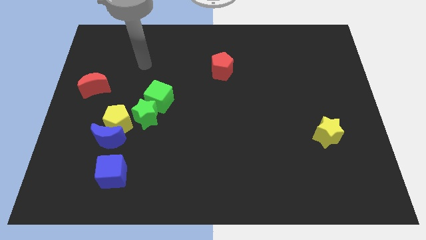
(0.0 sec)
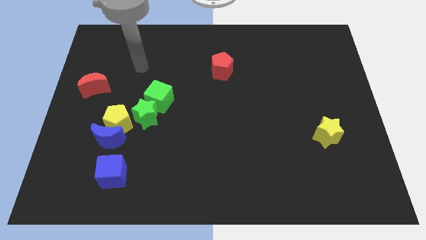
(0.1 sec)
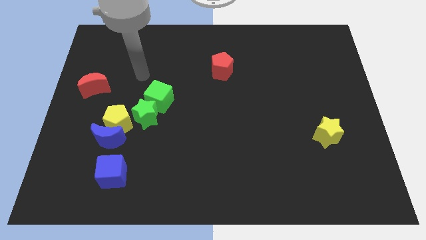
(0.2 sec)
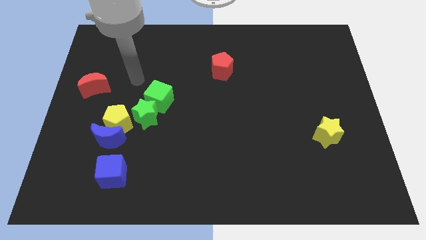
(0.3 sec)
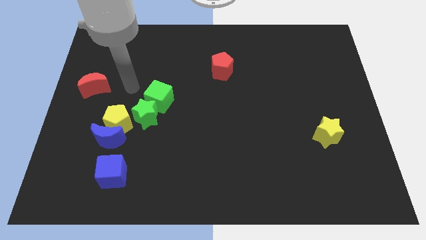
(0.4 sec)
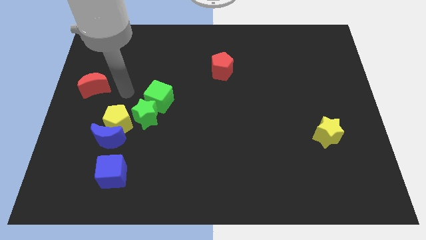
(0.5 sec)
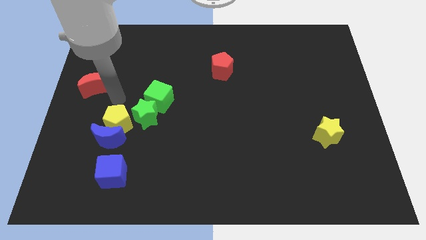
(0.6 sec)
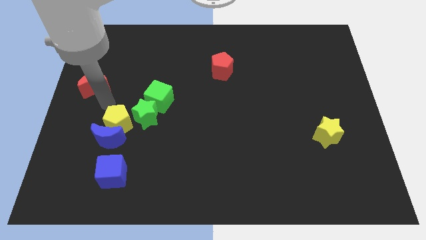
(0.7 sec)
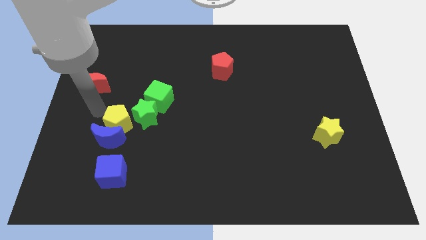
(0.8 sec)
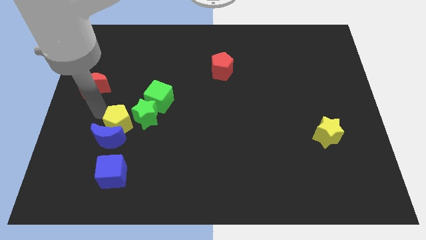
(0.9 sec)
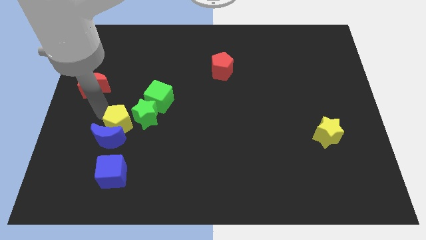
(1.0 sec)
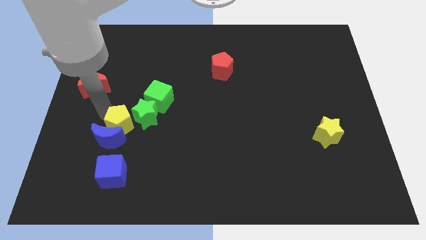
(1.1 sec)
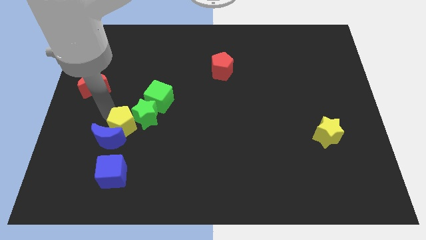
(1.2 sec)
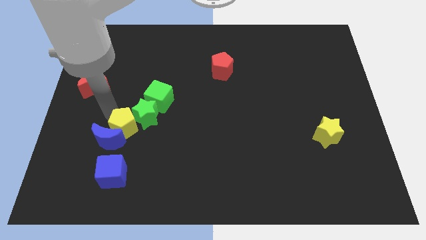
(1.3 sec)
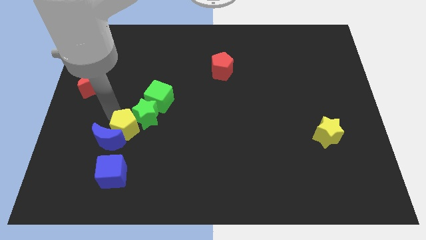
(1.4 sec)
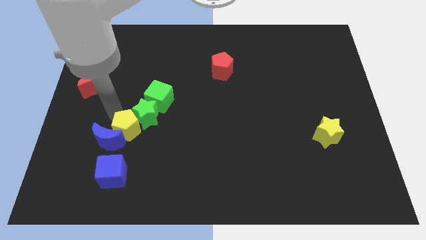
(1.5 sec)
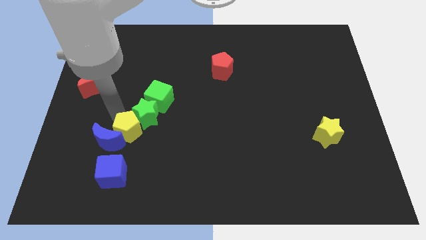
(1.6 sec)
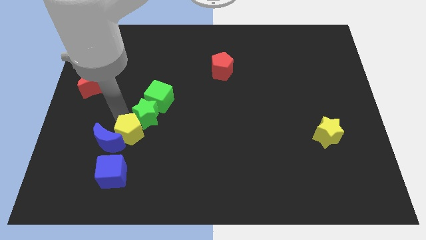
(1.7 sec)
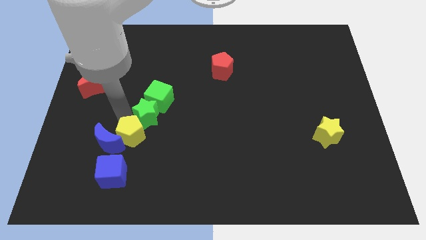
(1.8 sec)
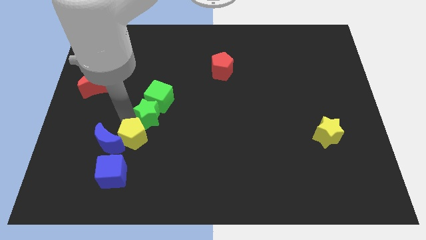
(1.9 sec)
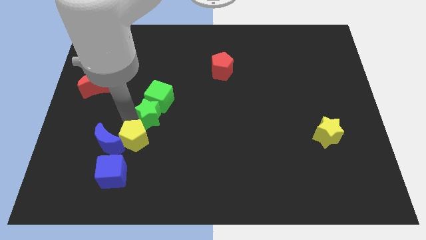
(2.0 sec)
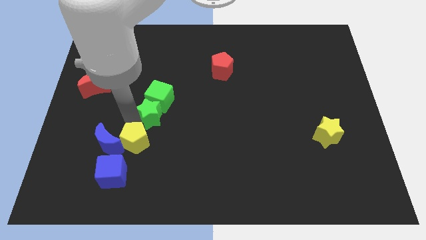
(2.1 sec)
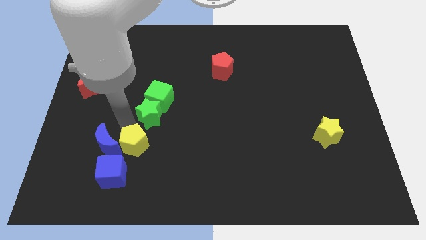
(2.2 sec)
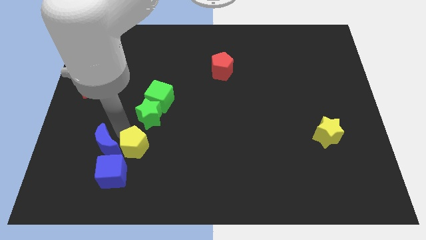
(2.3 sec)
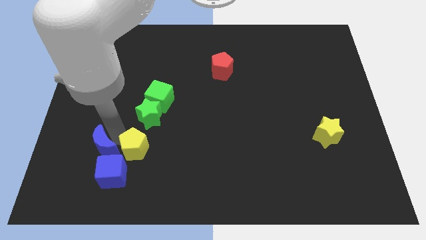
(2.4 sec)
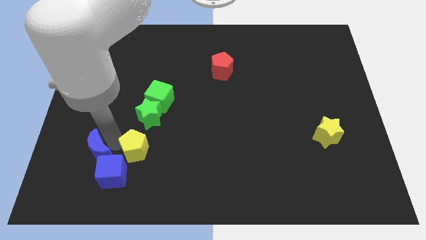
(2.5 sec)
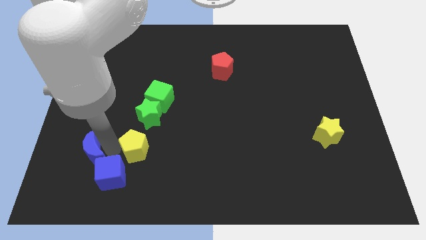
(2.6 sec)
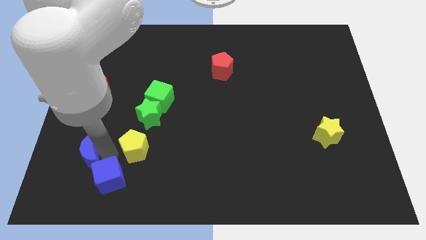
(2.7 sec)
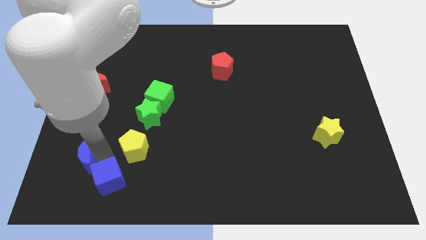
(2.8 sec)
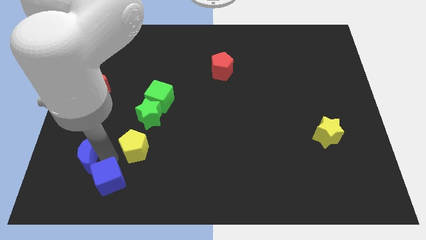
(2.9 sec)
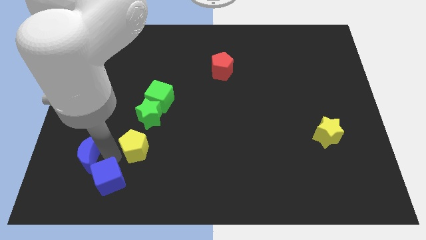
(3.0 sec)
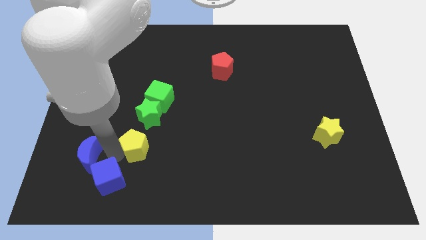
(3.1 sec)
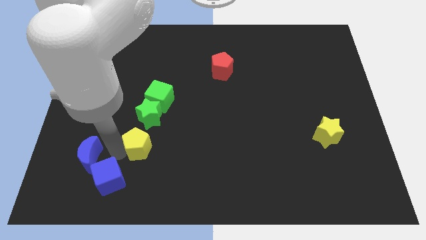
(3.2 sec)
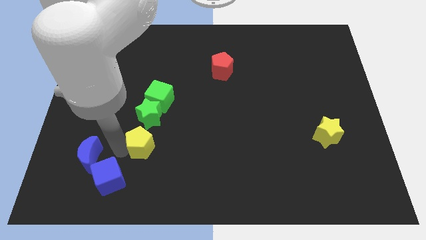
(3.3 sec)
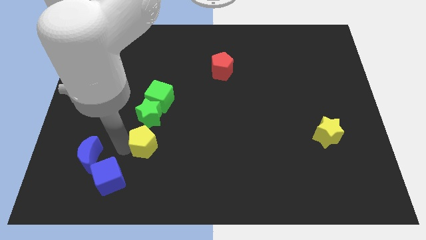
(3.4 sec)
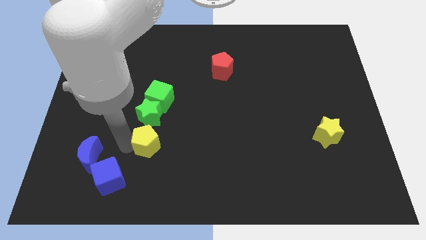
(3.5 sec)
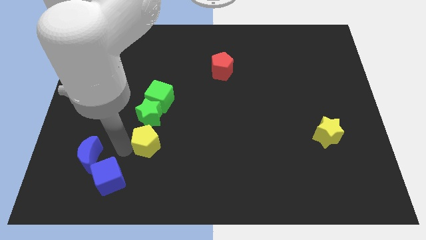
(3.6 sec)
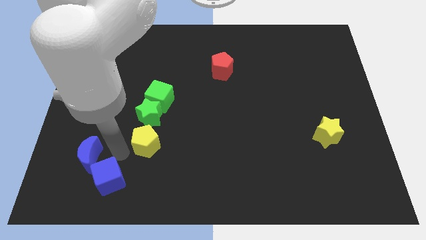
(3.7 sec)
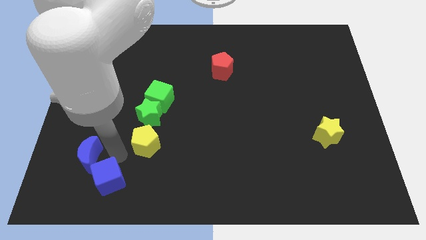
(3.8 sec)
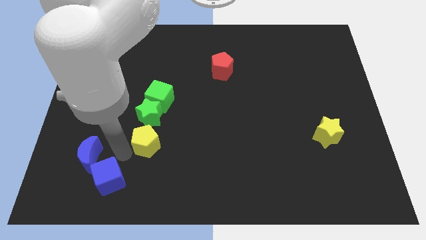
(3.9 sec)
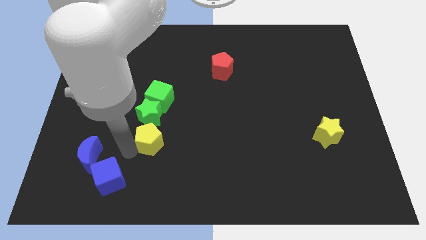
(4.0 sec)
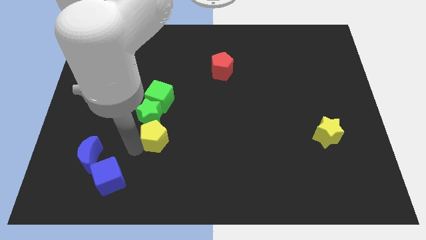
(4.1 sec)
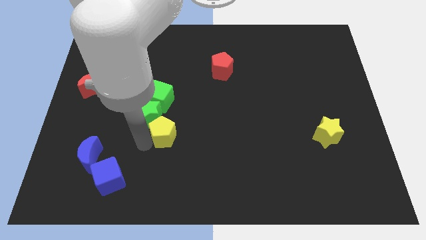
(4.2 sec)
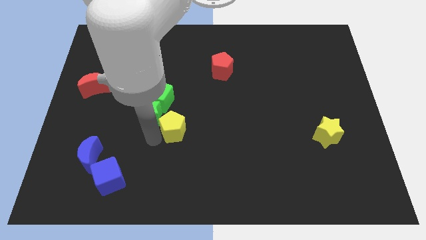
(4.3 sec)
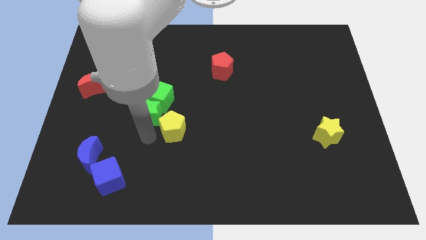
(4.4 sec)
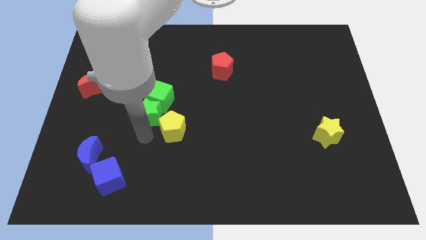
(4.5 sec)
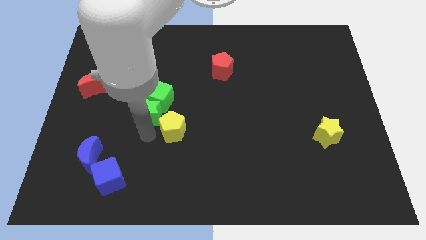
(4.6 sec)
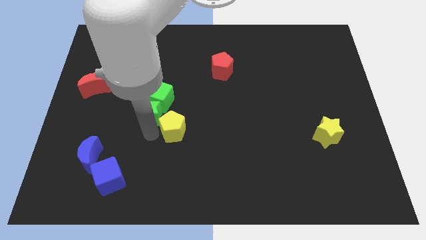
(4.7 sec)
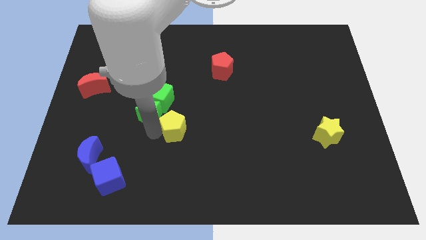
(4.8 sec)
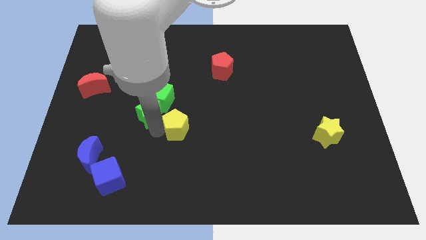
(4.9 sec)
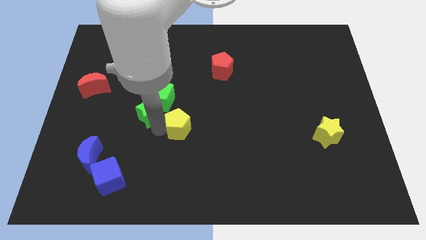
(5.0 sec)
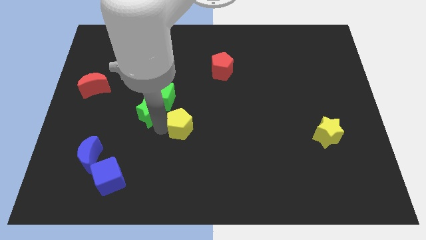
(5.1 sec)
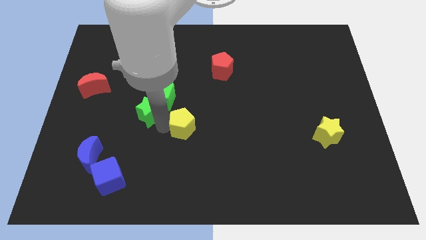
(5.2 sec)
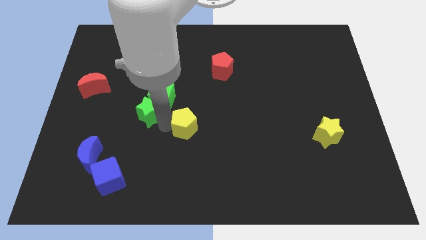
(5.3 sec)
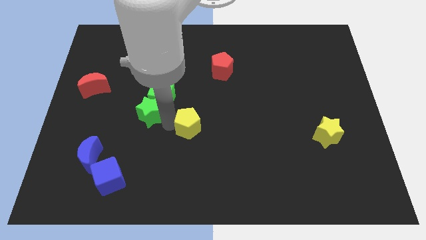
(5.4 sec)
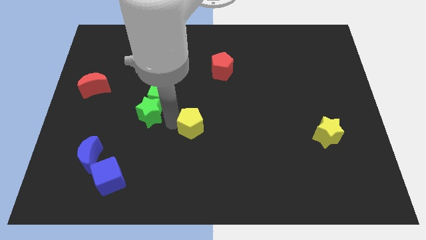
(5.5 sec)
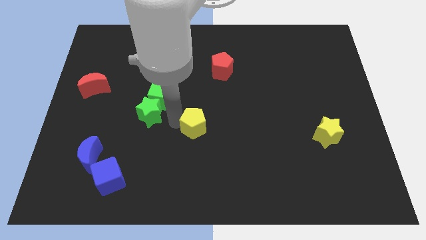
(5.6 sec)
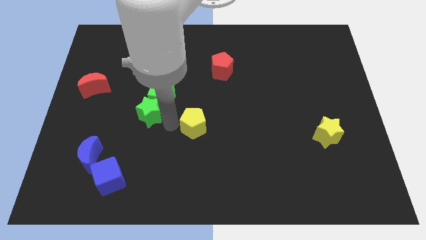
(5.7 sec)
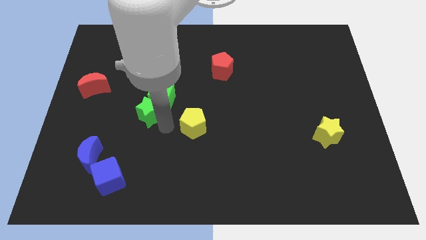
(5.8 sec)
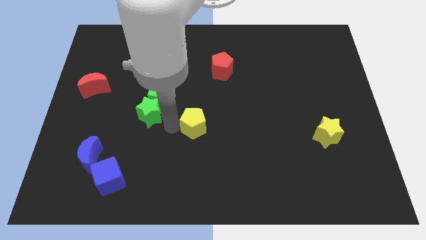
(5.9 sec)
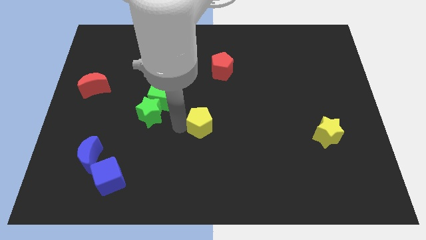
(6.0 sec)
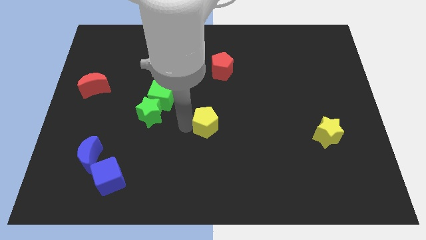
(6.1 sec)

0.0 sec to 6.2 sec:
move the yellow pentagon to the right

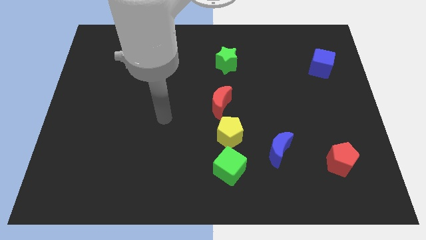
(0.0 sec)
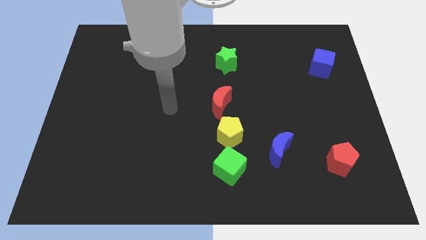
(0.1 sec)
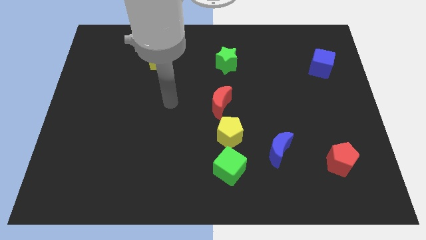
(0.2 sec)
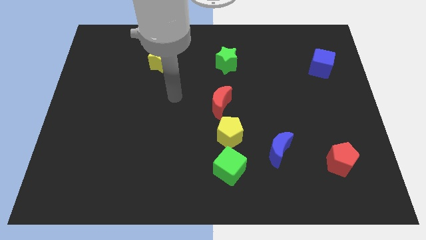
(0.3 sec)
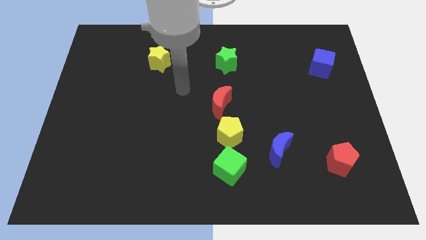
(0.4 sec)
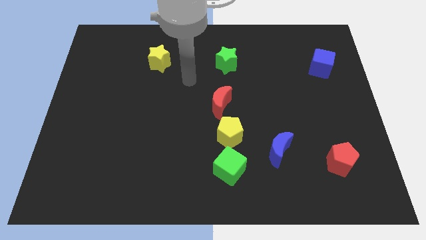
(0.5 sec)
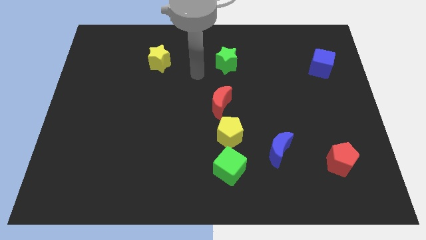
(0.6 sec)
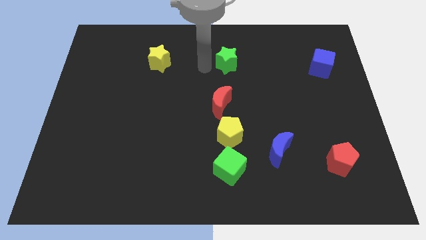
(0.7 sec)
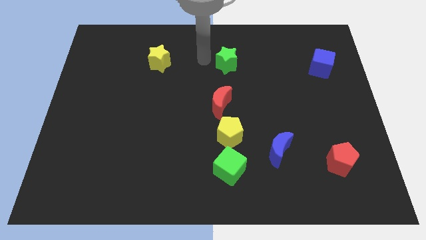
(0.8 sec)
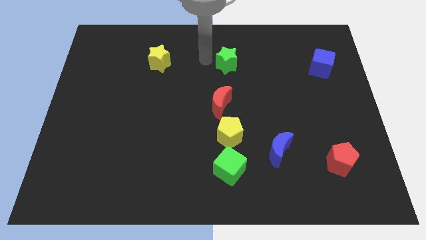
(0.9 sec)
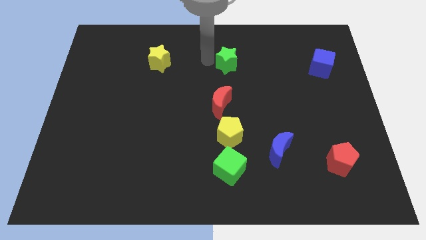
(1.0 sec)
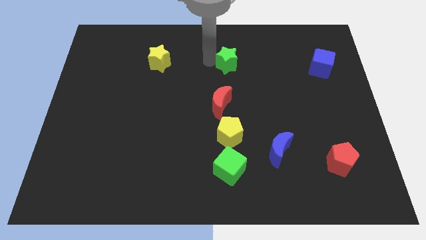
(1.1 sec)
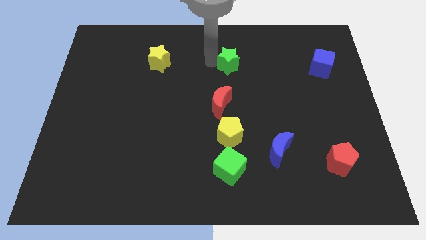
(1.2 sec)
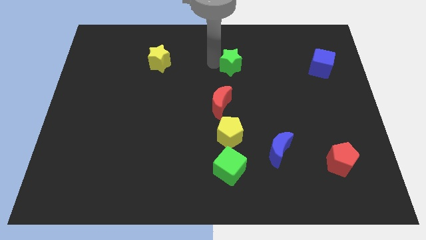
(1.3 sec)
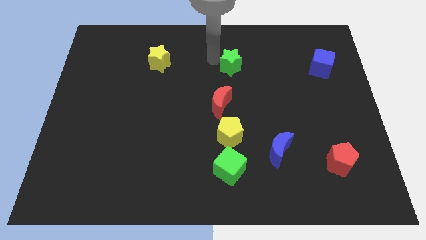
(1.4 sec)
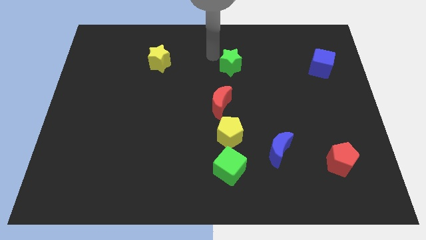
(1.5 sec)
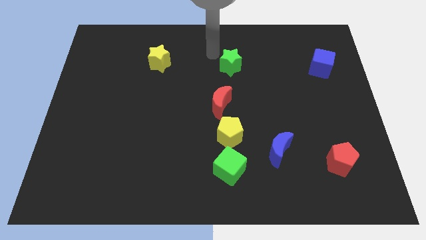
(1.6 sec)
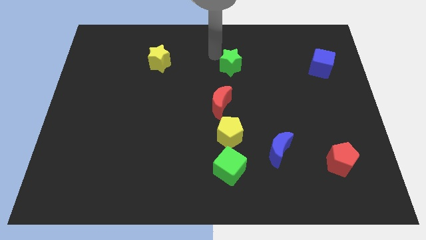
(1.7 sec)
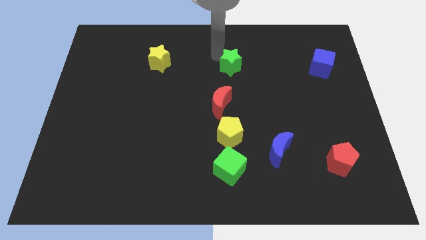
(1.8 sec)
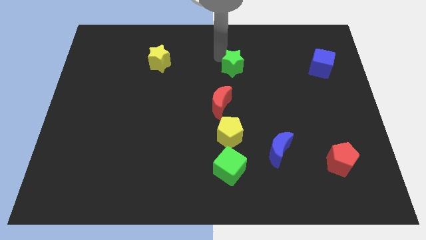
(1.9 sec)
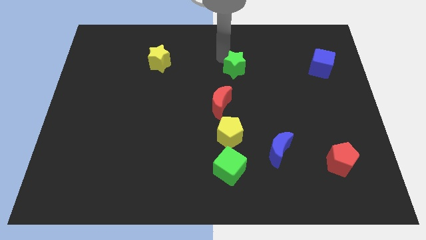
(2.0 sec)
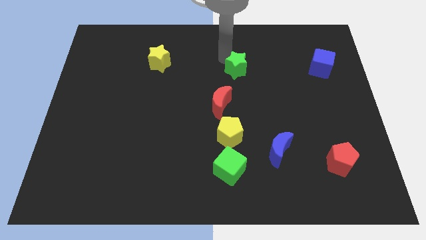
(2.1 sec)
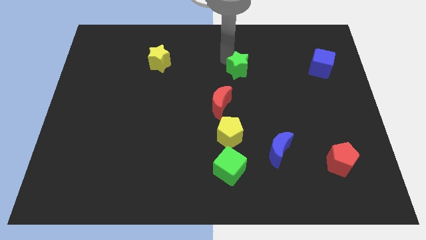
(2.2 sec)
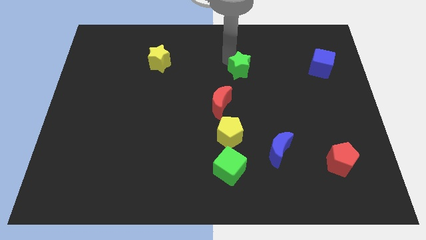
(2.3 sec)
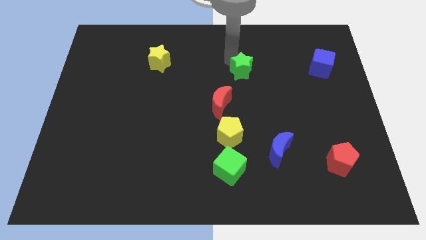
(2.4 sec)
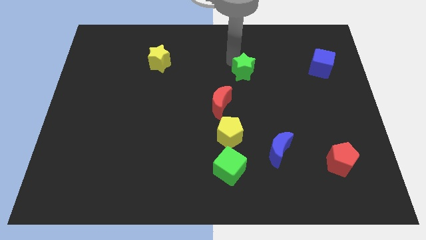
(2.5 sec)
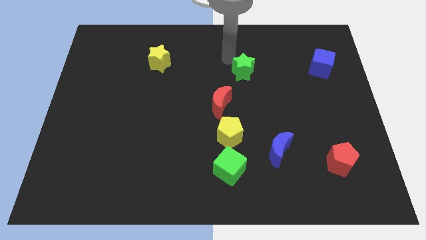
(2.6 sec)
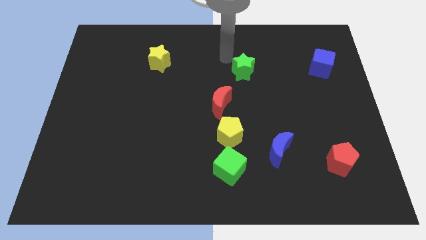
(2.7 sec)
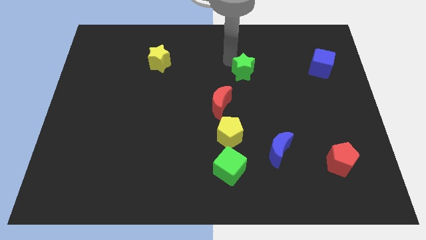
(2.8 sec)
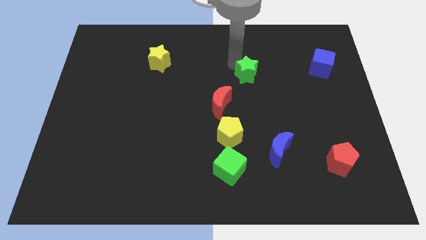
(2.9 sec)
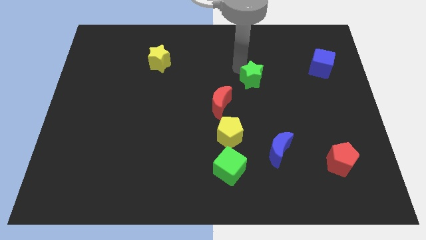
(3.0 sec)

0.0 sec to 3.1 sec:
push the green star a little downwards and right diagonally
